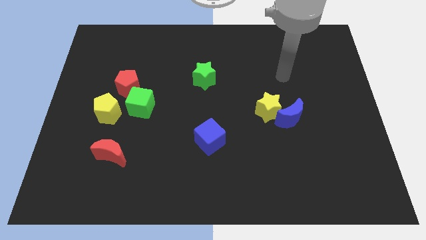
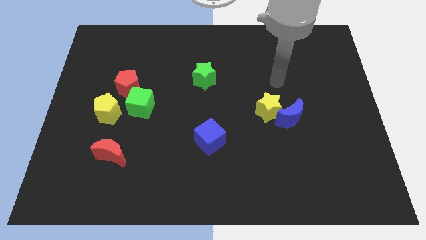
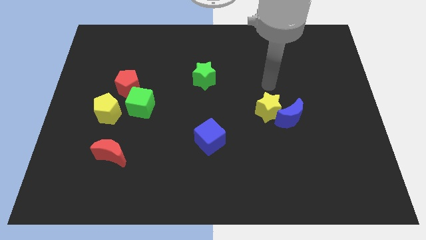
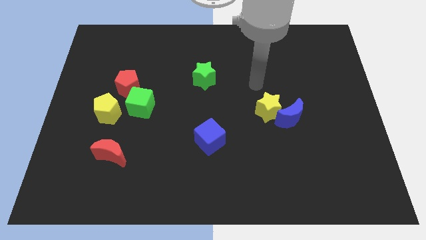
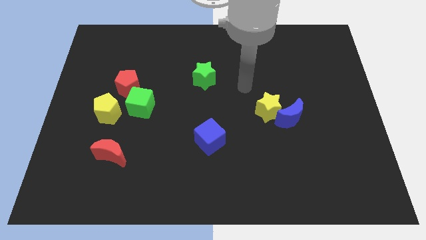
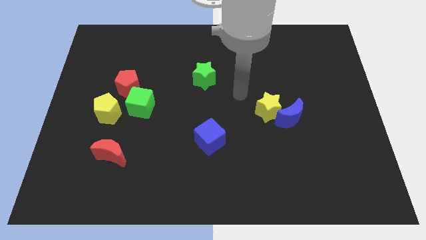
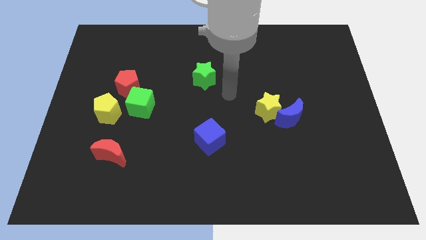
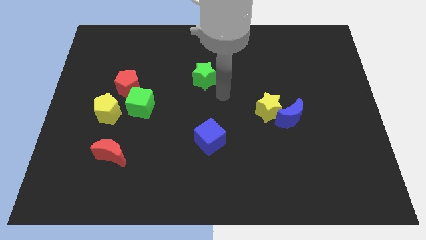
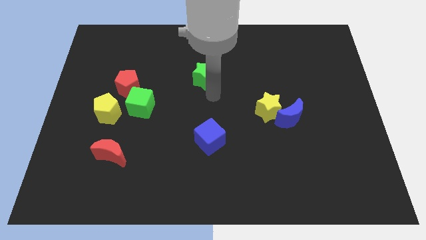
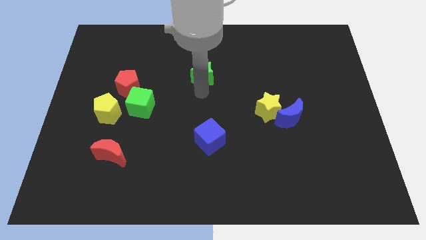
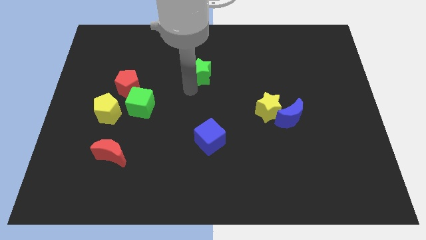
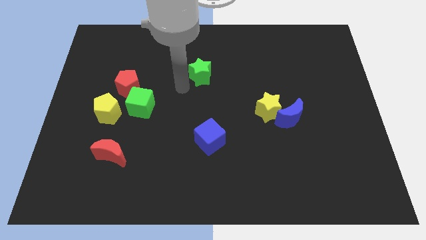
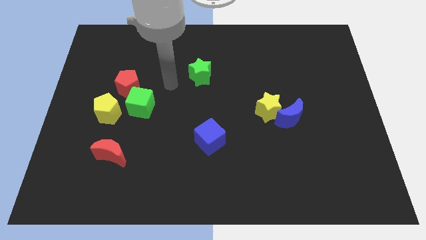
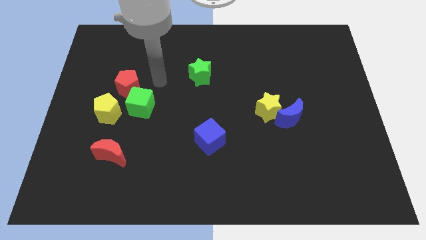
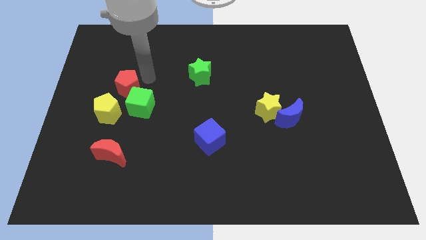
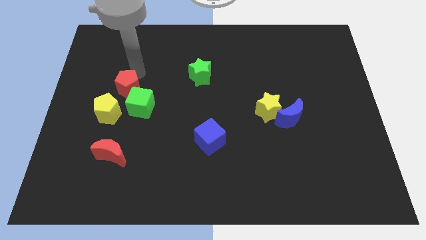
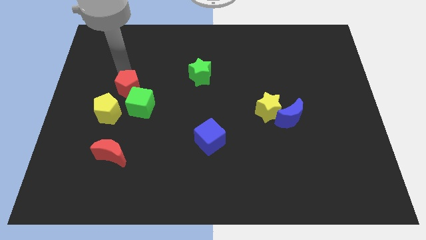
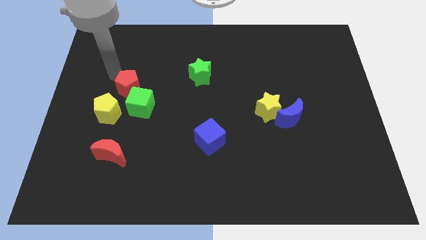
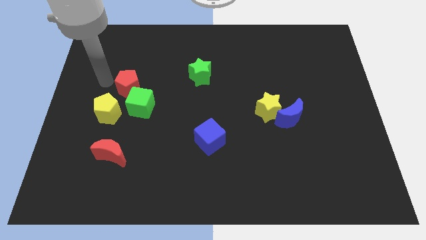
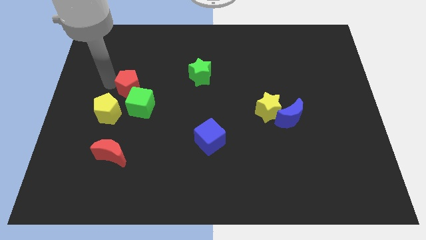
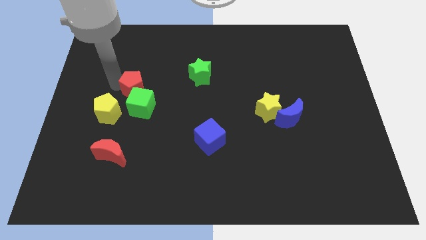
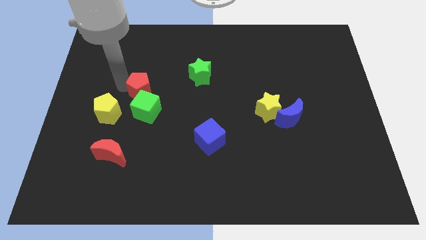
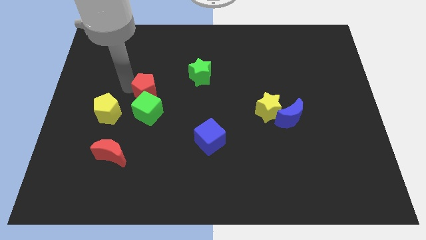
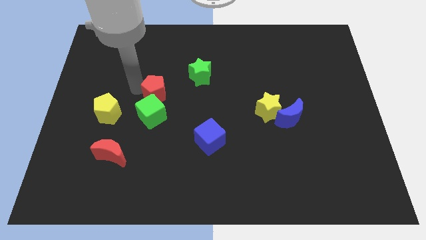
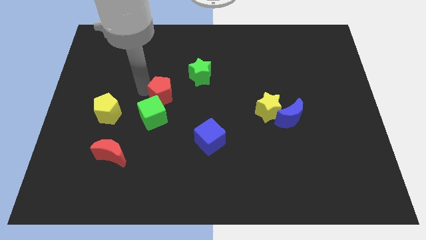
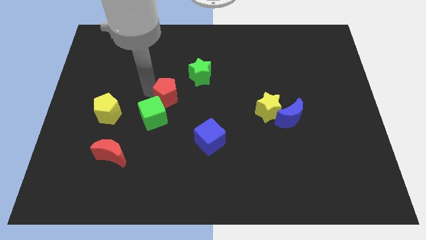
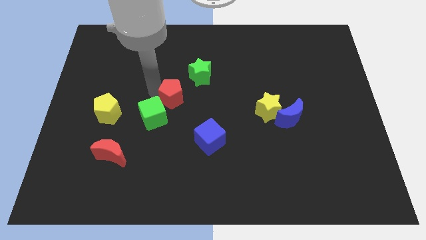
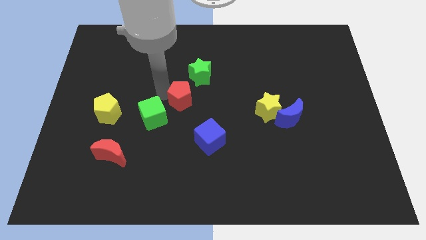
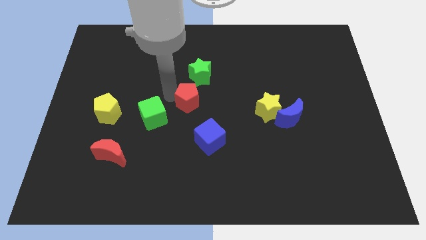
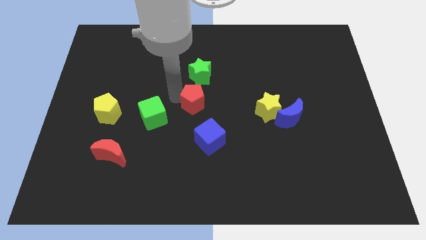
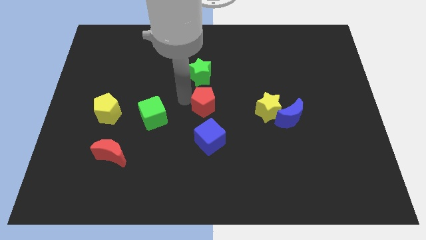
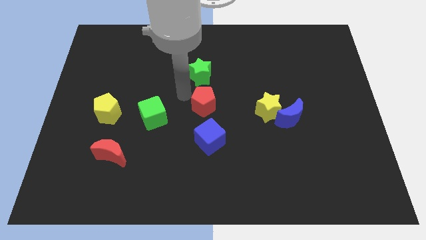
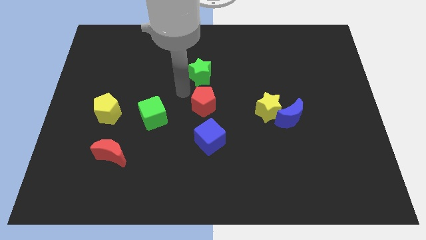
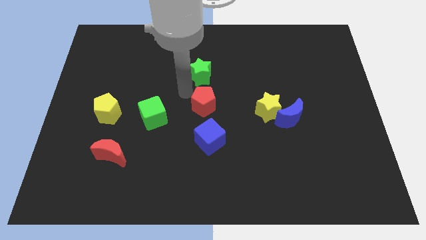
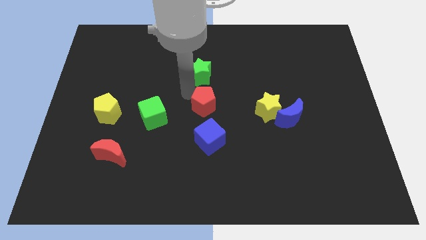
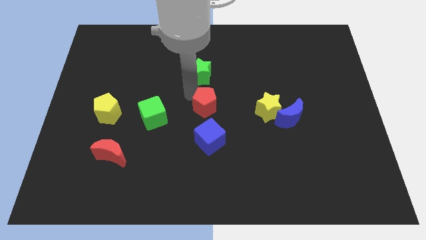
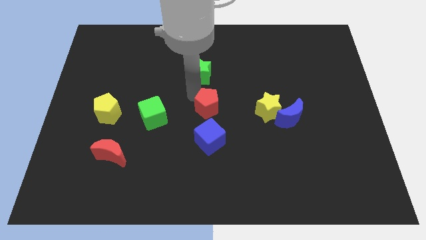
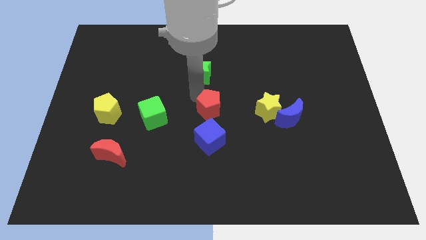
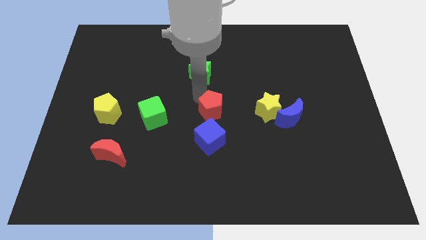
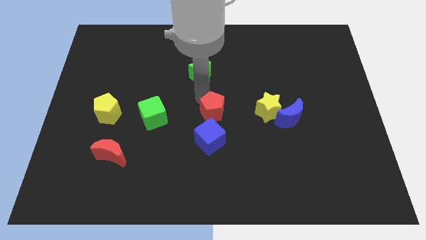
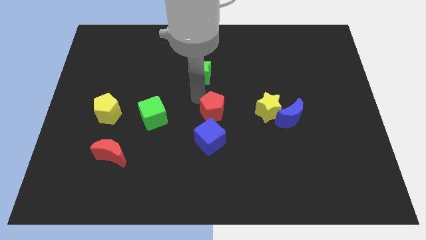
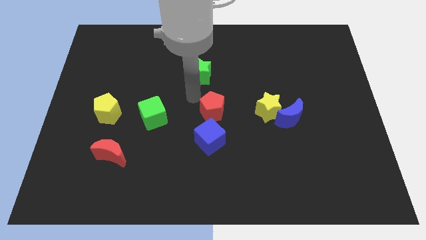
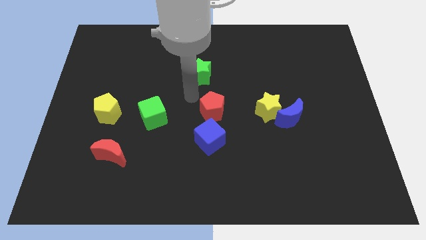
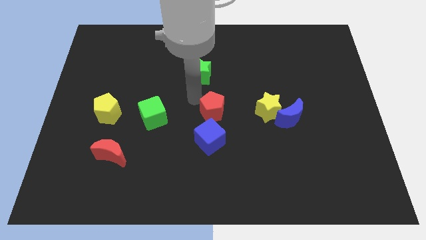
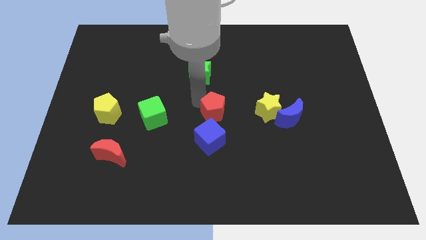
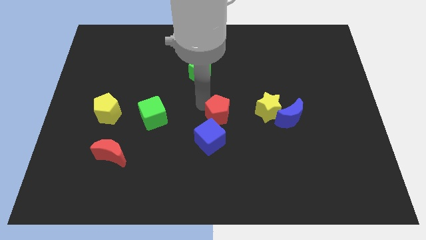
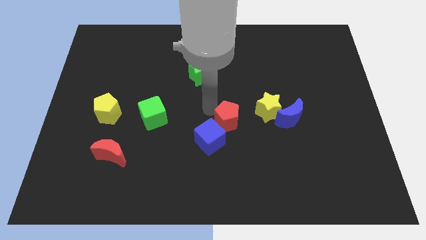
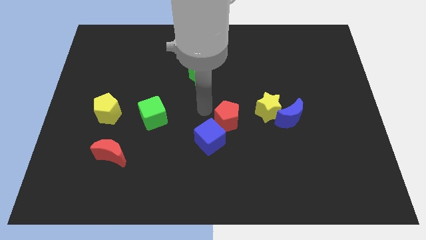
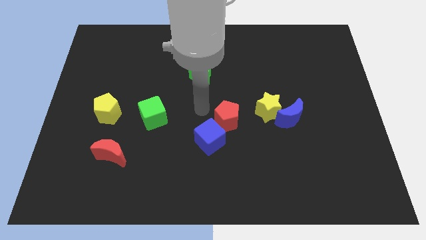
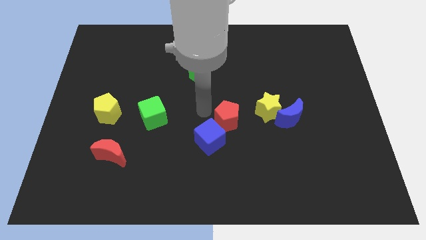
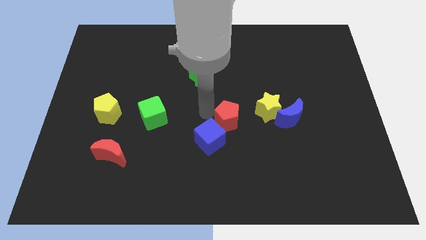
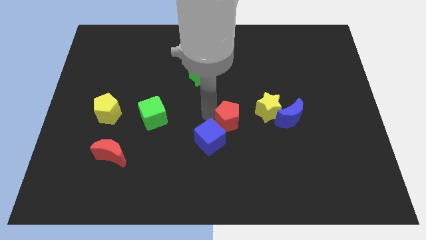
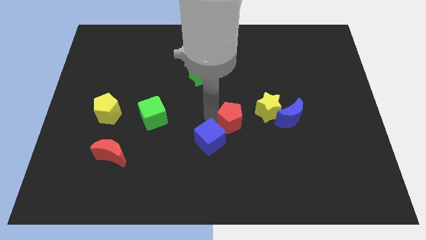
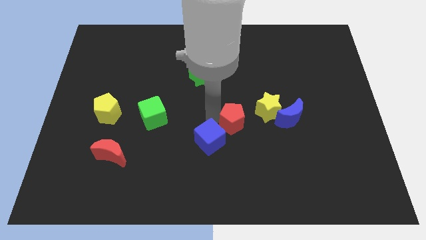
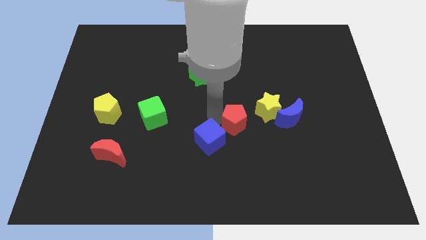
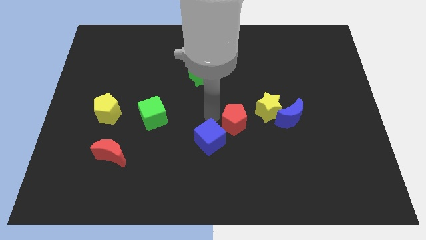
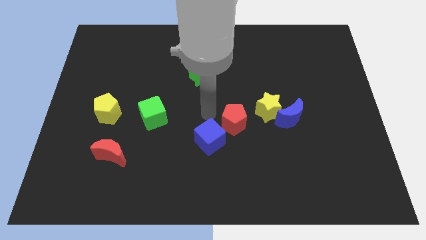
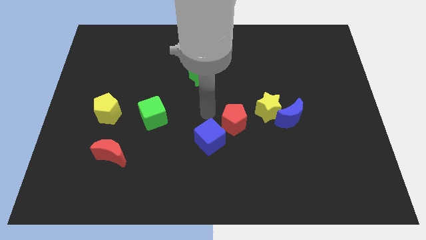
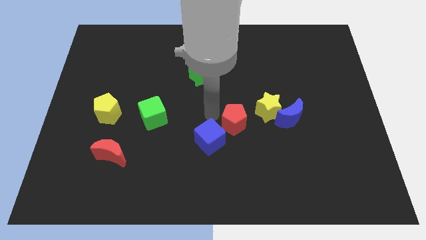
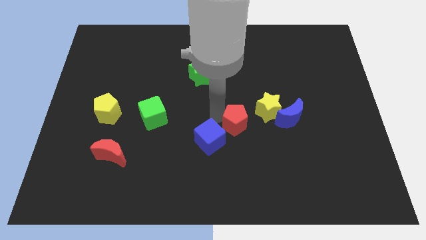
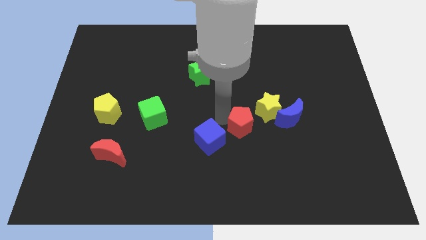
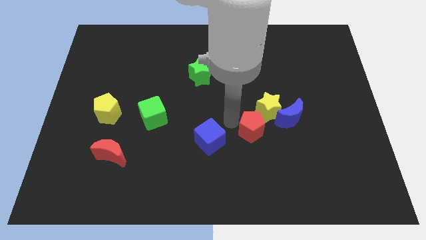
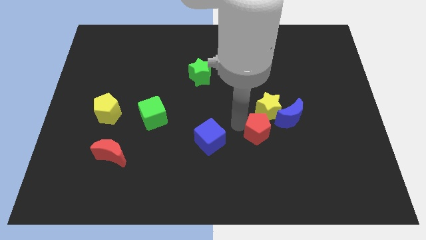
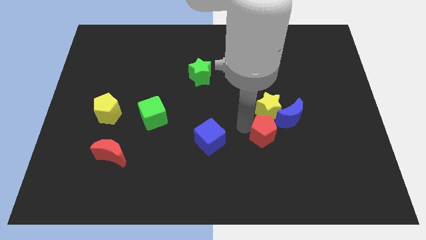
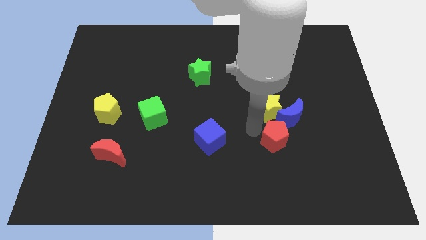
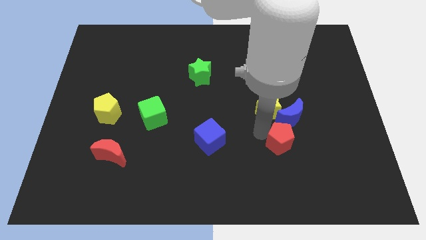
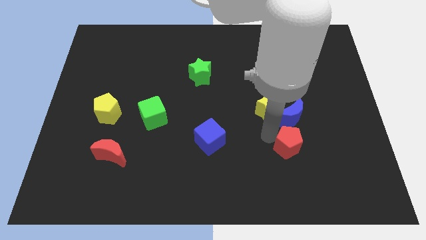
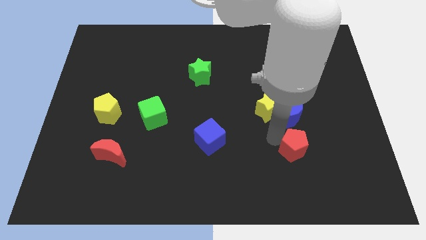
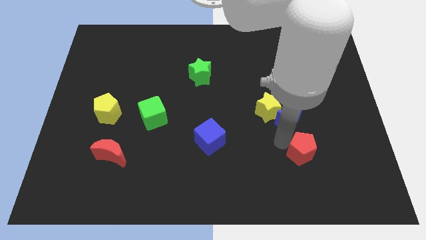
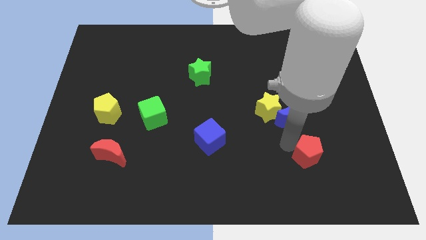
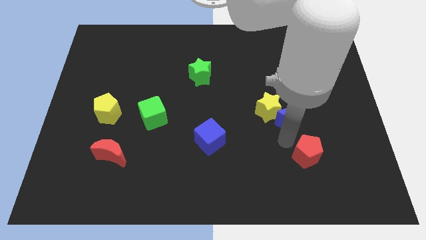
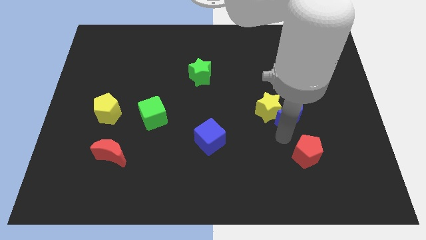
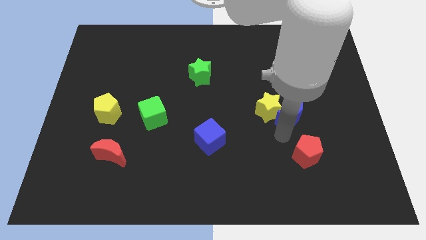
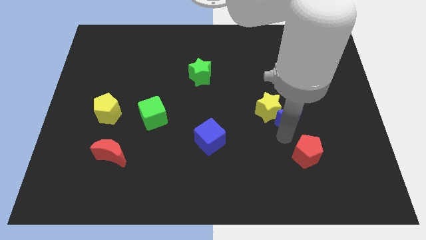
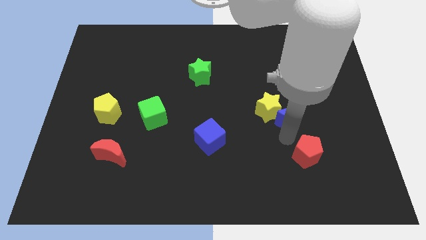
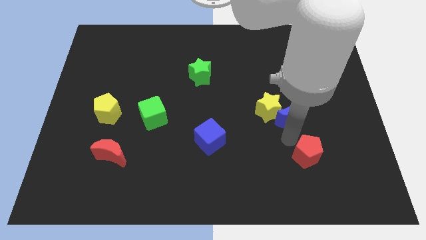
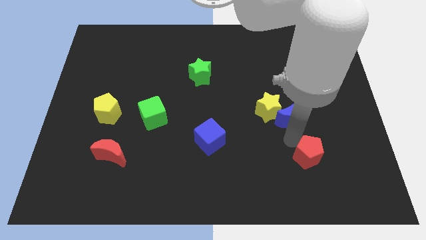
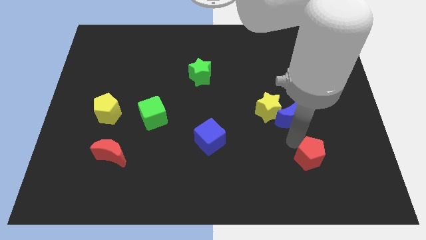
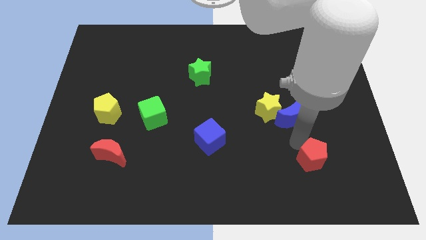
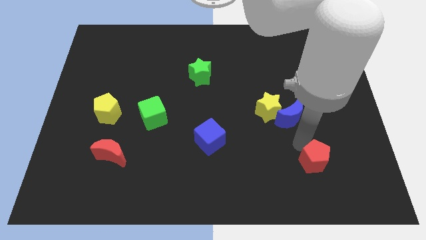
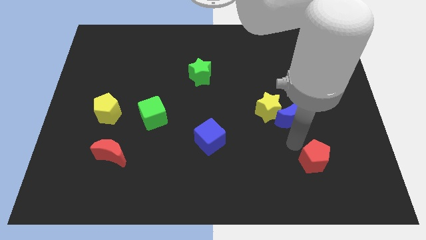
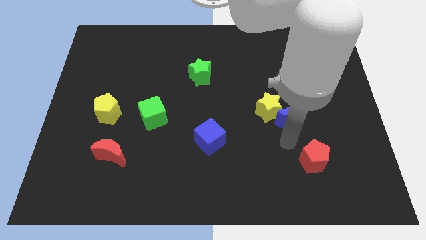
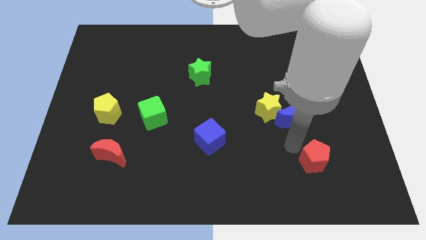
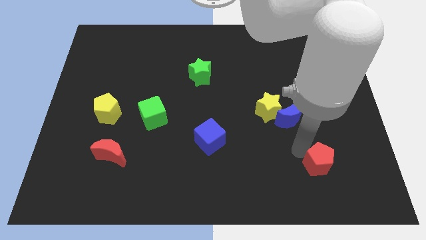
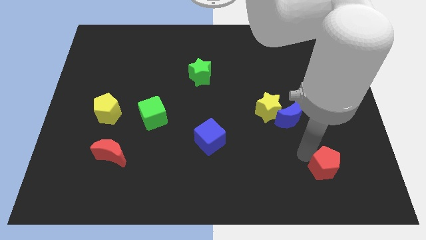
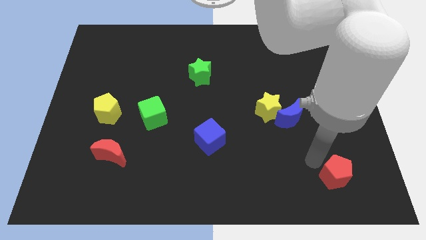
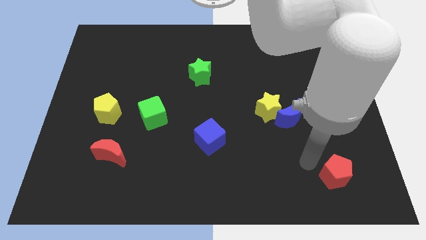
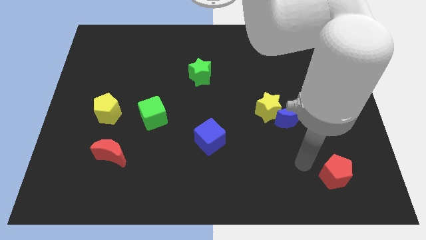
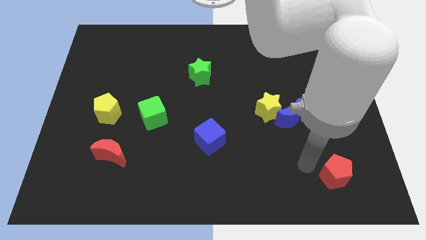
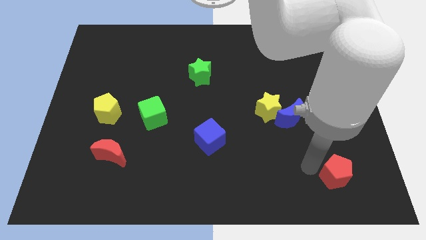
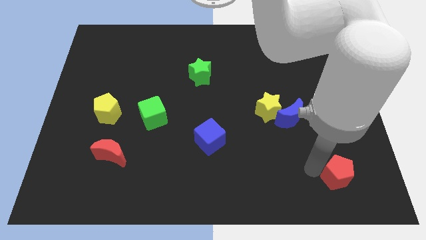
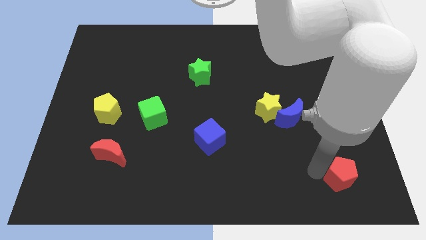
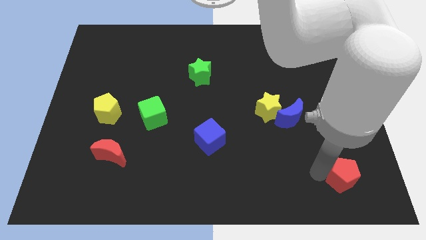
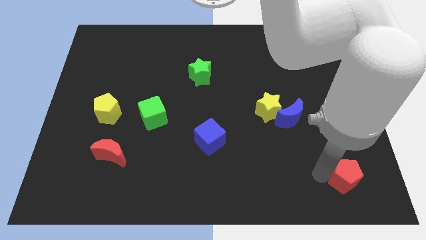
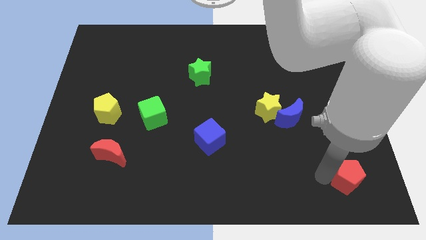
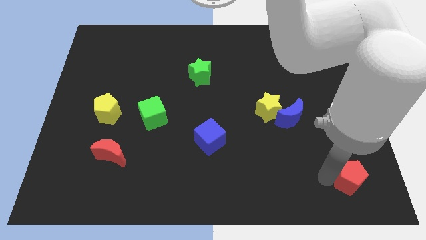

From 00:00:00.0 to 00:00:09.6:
slide the red pentagon to the bottom right
